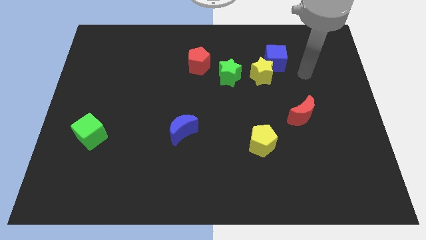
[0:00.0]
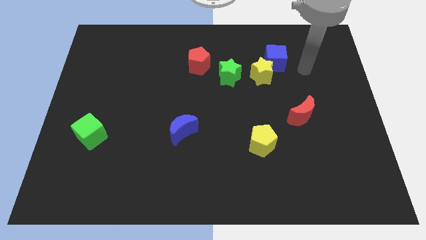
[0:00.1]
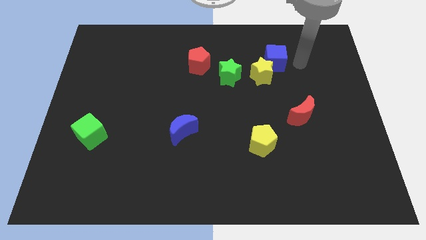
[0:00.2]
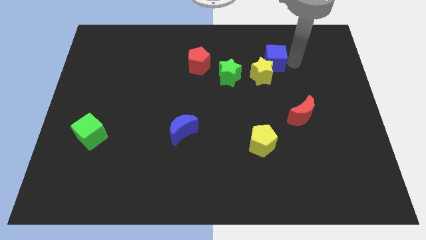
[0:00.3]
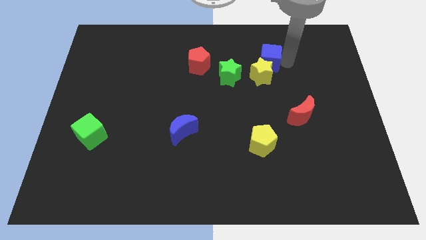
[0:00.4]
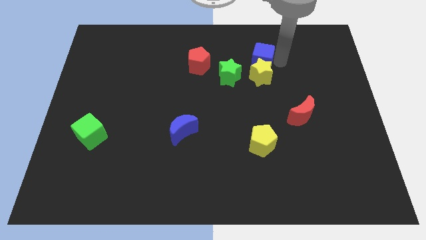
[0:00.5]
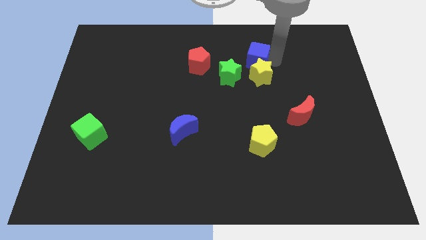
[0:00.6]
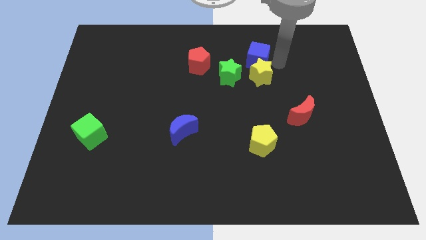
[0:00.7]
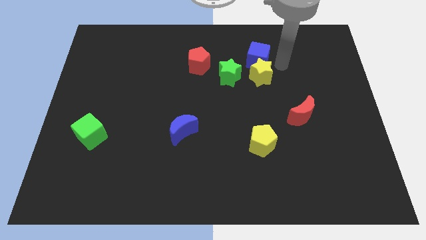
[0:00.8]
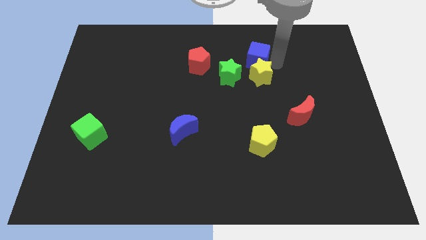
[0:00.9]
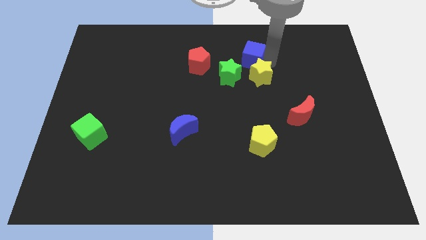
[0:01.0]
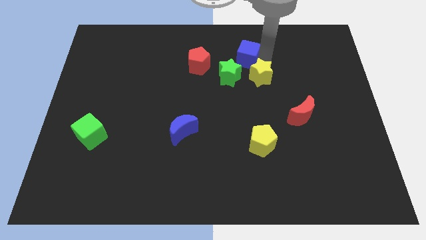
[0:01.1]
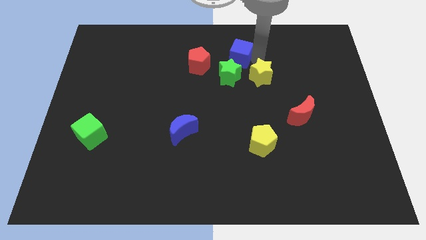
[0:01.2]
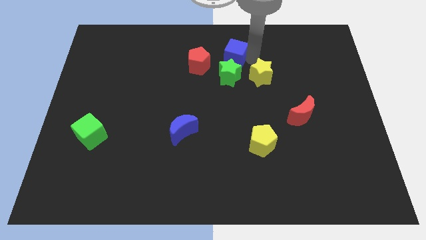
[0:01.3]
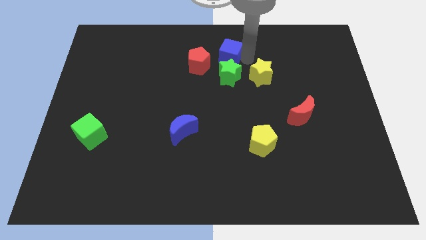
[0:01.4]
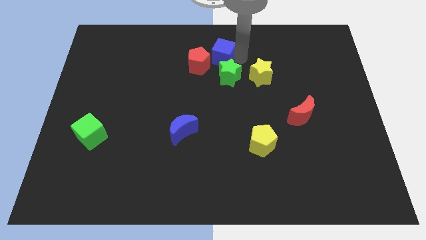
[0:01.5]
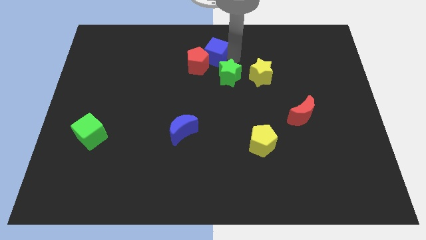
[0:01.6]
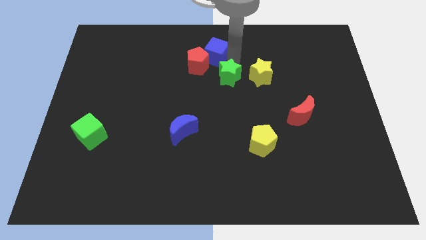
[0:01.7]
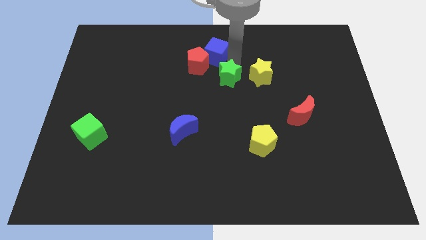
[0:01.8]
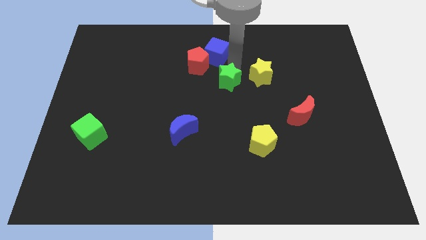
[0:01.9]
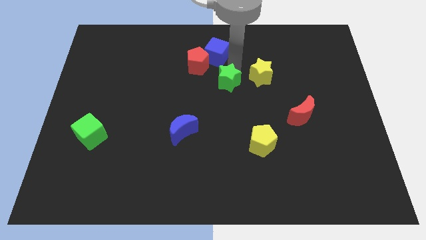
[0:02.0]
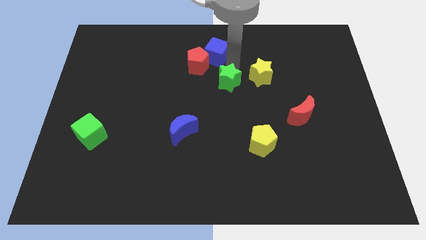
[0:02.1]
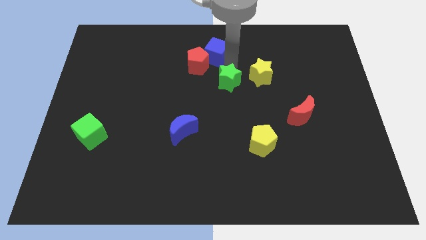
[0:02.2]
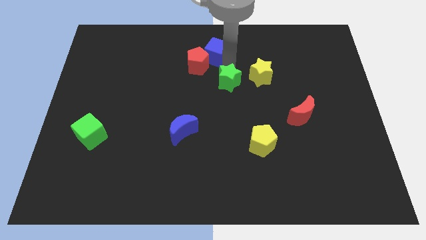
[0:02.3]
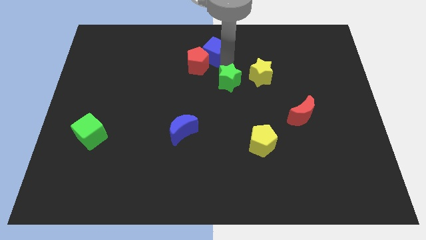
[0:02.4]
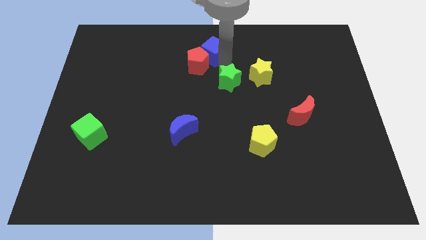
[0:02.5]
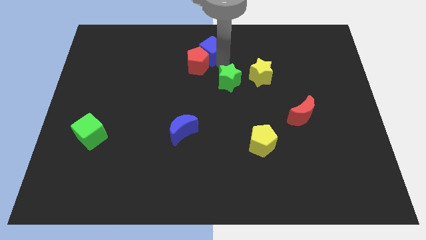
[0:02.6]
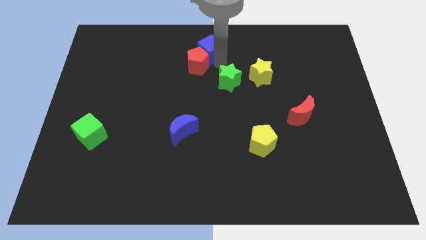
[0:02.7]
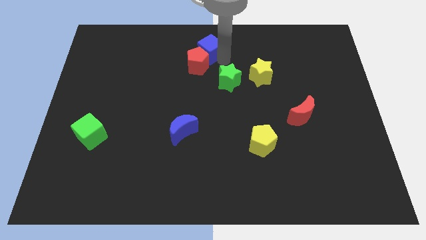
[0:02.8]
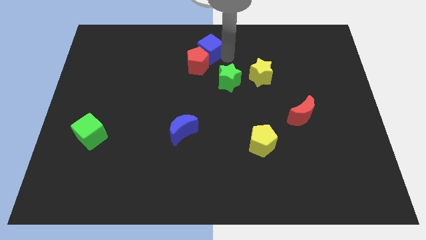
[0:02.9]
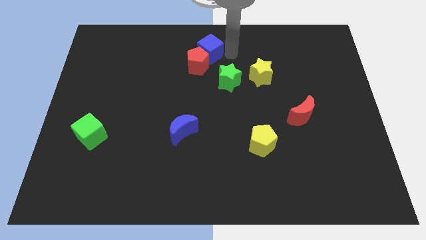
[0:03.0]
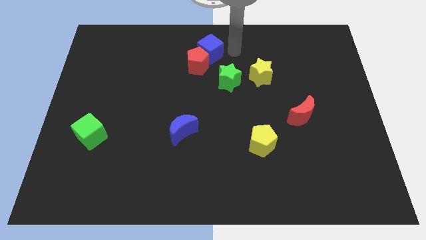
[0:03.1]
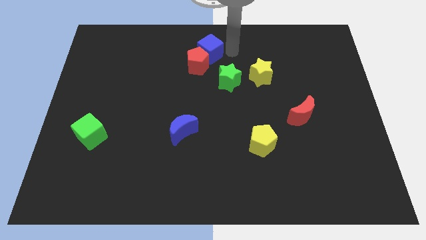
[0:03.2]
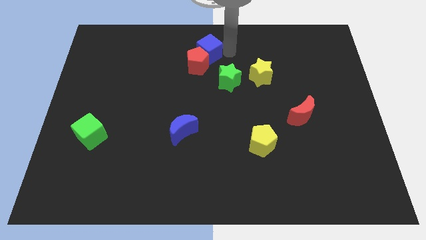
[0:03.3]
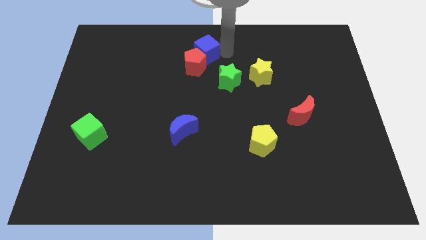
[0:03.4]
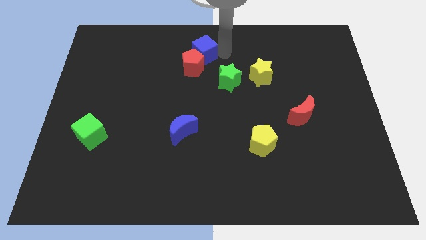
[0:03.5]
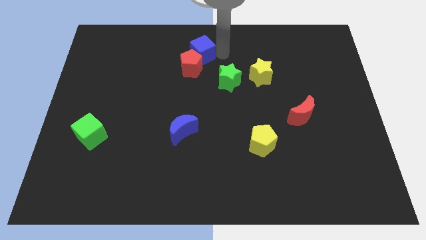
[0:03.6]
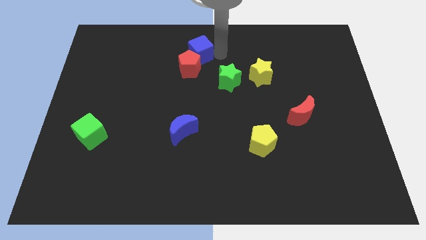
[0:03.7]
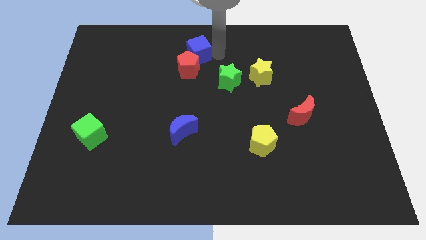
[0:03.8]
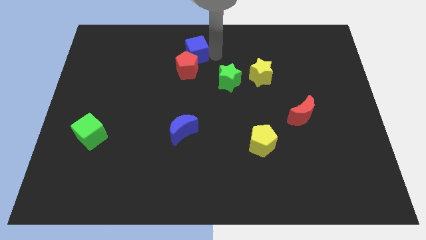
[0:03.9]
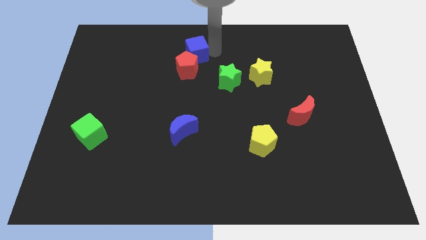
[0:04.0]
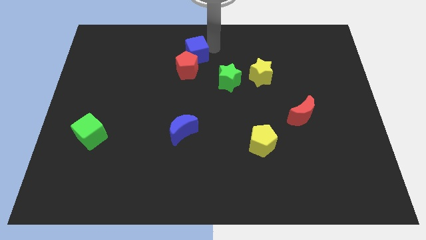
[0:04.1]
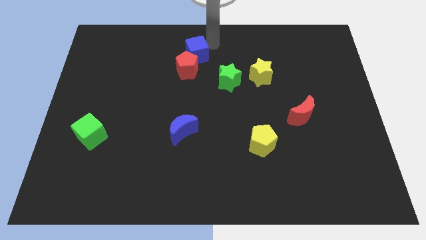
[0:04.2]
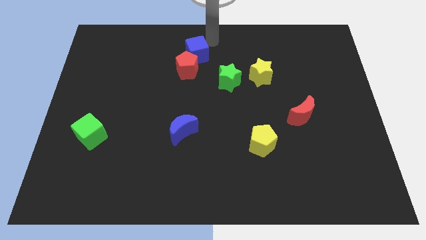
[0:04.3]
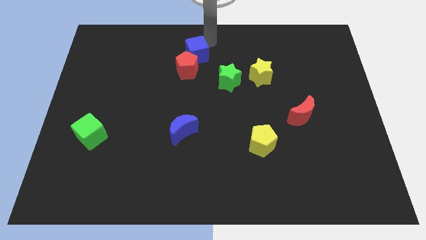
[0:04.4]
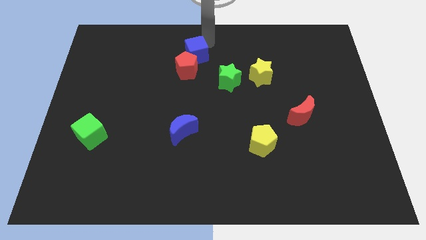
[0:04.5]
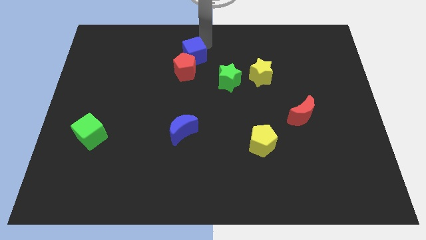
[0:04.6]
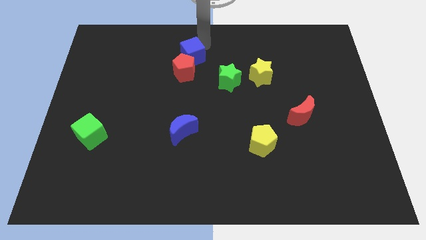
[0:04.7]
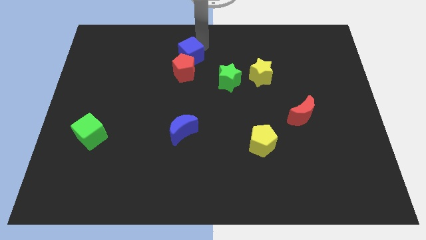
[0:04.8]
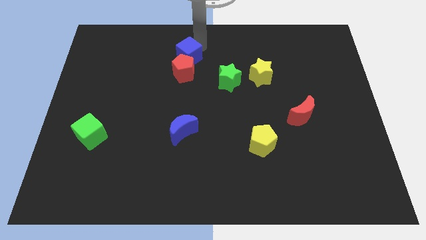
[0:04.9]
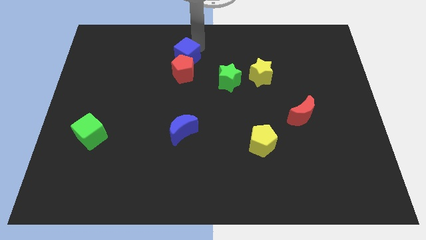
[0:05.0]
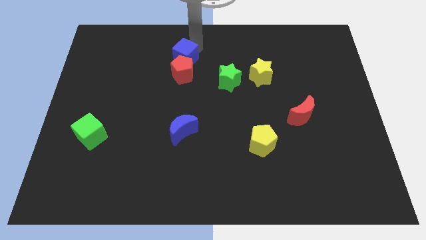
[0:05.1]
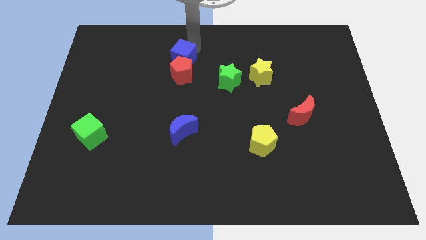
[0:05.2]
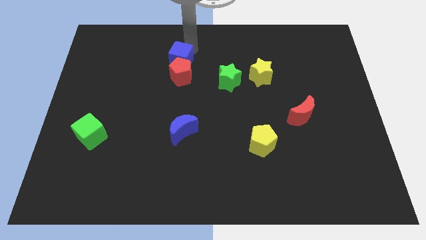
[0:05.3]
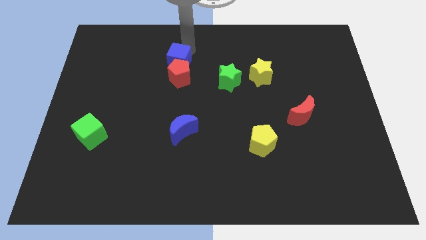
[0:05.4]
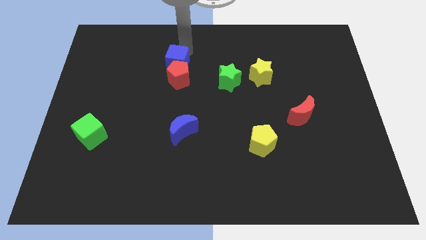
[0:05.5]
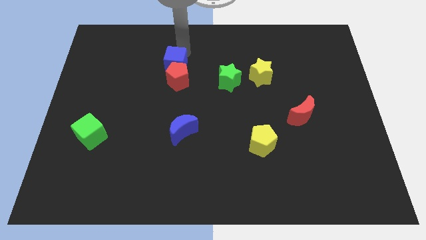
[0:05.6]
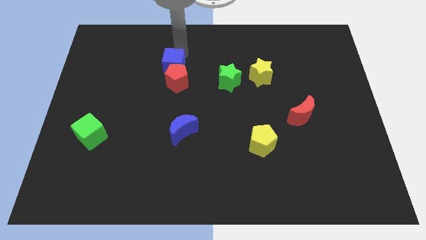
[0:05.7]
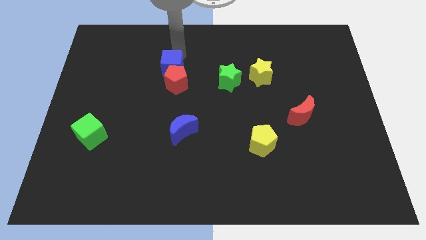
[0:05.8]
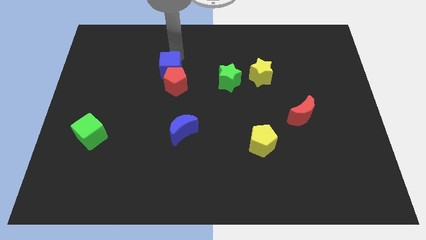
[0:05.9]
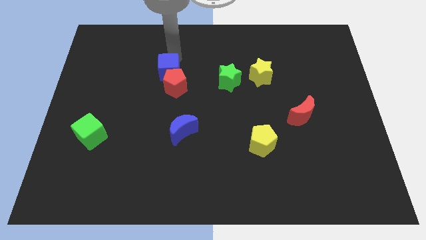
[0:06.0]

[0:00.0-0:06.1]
slide the blue cube to the left of the green star

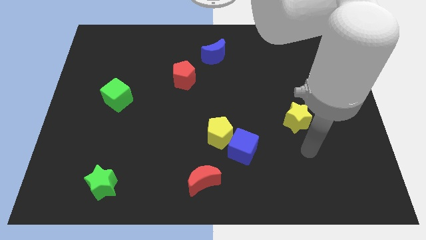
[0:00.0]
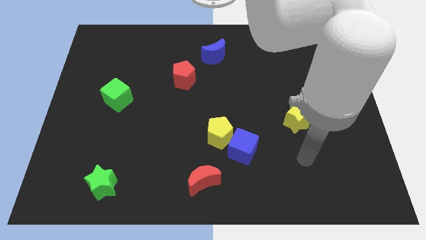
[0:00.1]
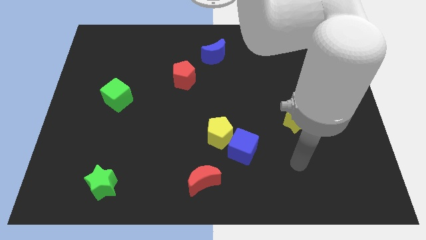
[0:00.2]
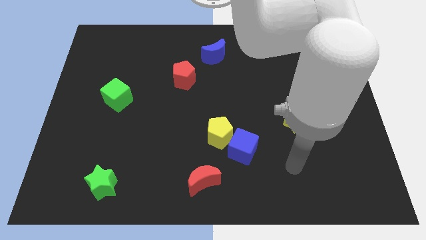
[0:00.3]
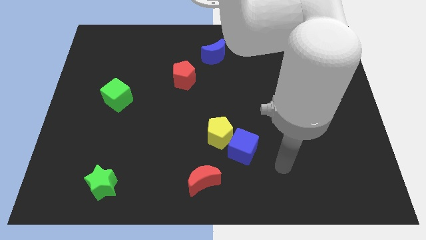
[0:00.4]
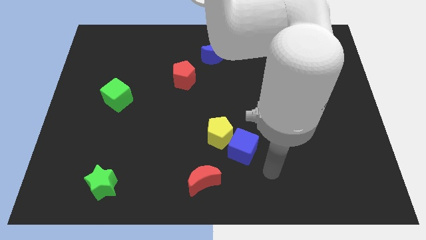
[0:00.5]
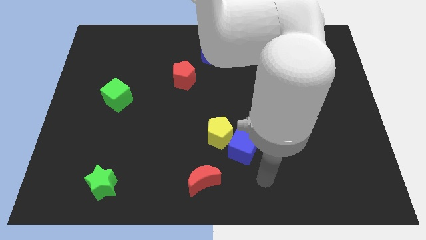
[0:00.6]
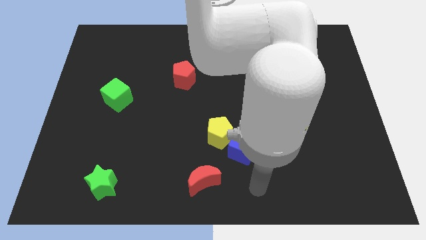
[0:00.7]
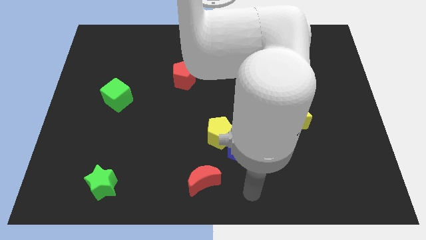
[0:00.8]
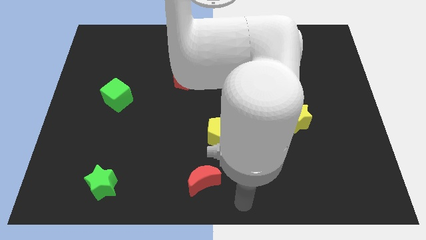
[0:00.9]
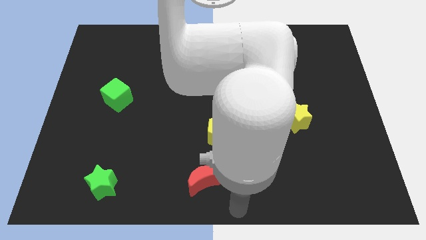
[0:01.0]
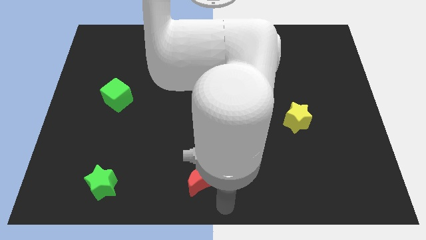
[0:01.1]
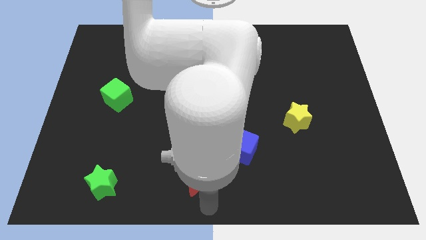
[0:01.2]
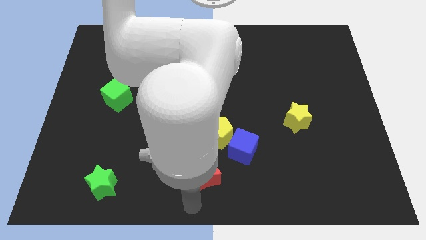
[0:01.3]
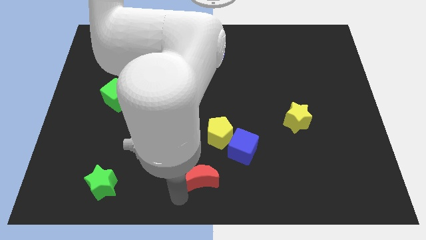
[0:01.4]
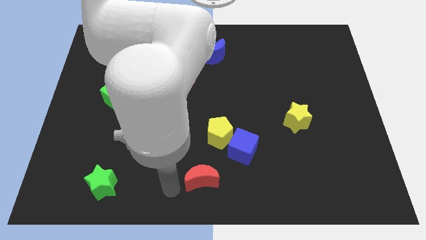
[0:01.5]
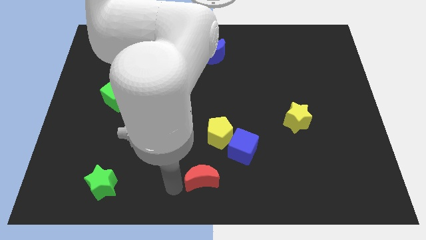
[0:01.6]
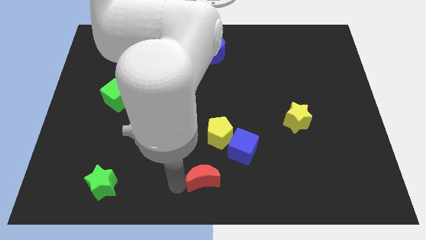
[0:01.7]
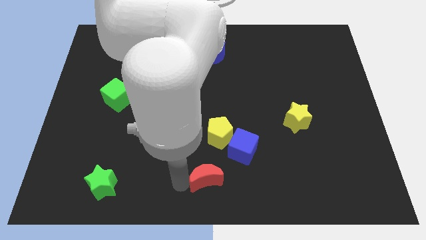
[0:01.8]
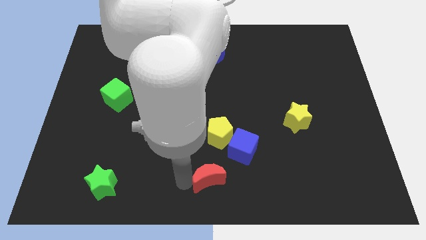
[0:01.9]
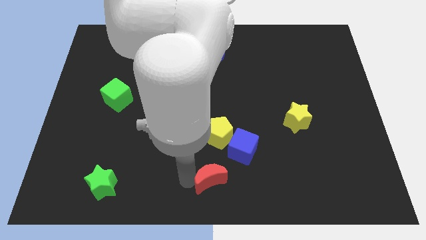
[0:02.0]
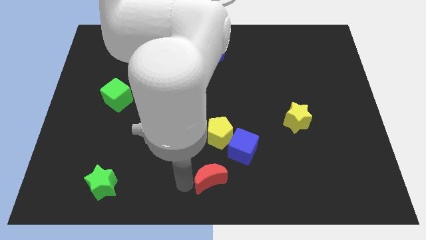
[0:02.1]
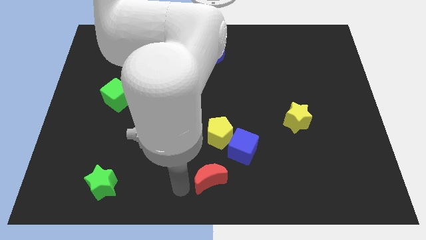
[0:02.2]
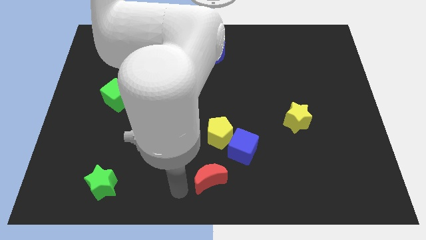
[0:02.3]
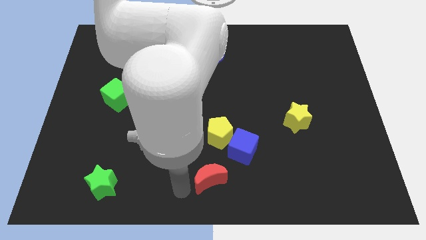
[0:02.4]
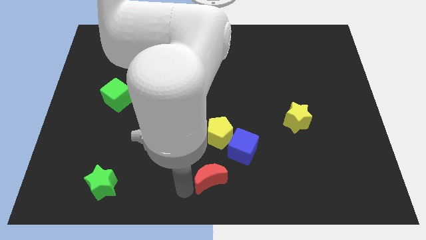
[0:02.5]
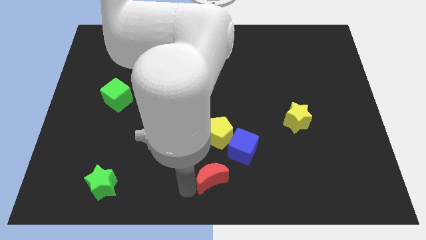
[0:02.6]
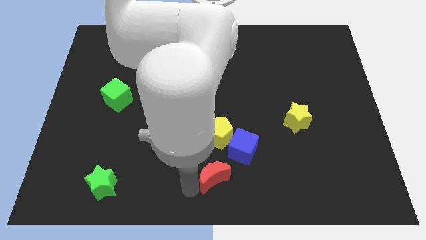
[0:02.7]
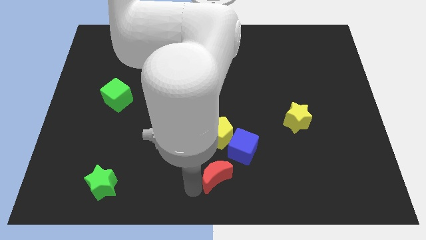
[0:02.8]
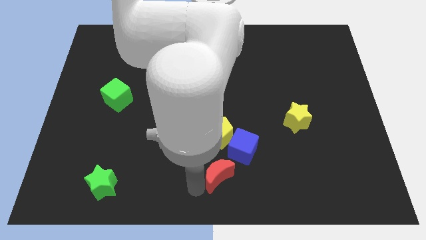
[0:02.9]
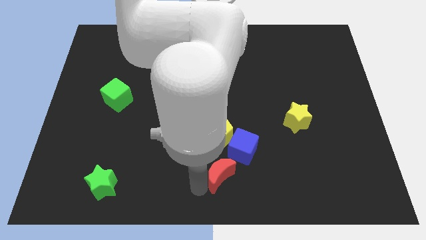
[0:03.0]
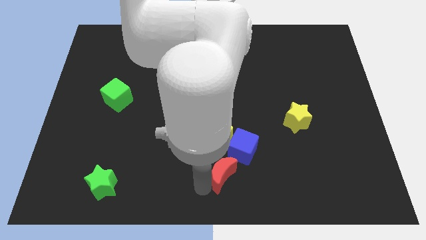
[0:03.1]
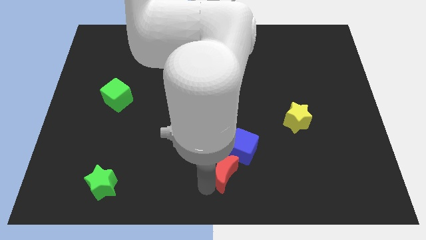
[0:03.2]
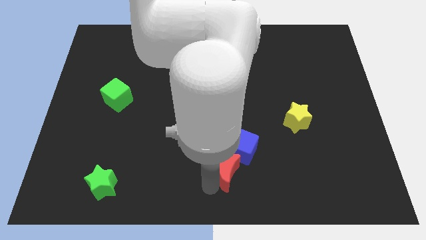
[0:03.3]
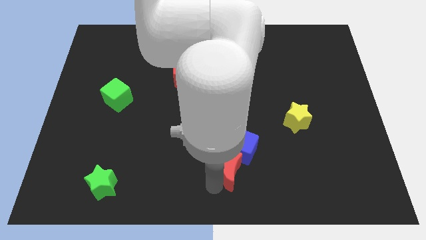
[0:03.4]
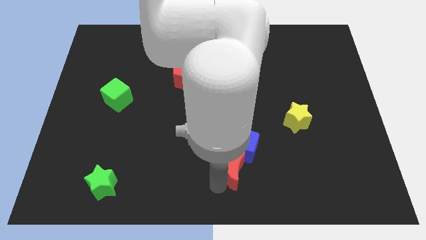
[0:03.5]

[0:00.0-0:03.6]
push the red moon to the bottom right of the yellow pentagon
